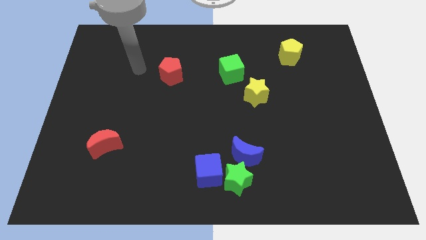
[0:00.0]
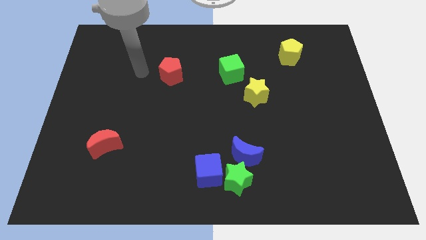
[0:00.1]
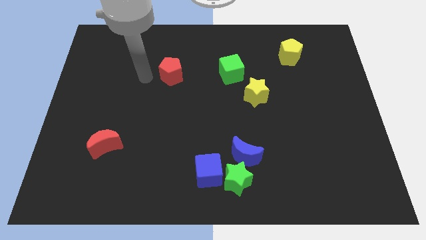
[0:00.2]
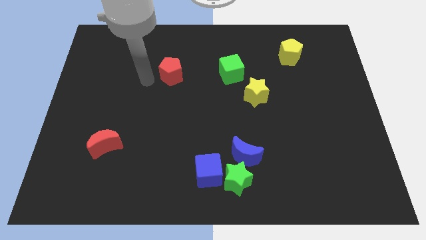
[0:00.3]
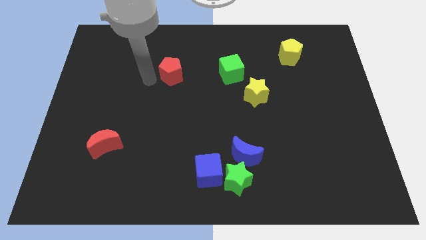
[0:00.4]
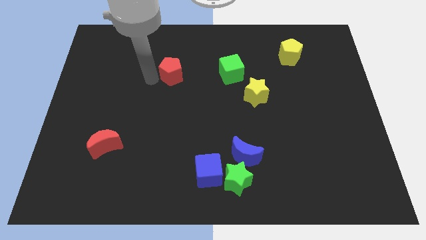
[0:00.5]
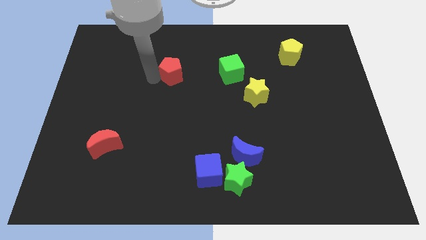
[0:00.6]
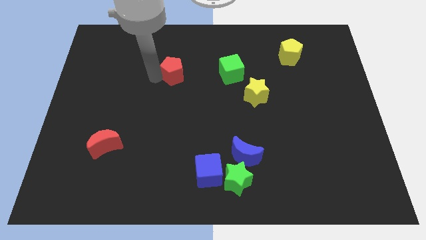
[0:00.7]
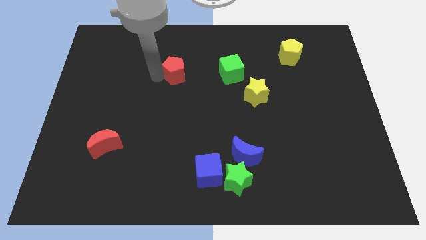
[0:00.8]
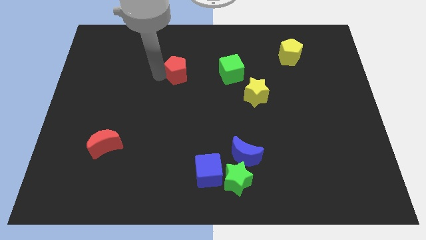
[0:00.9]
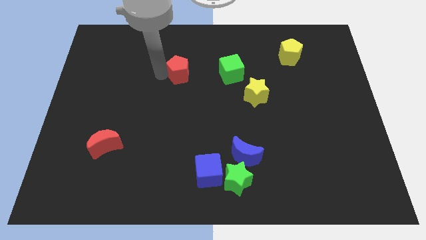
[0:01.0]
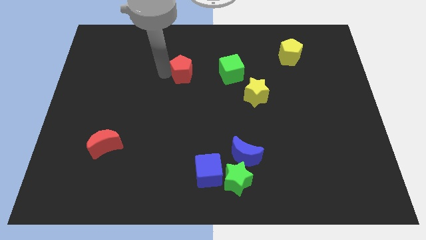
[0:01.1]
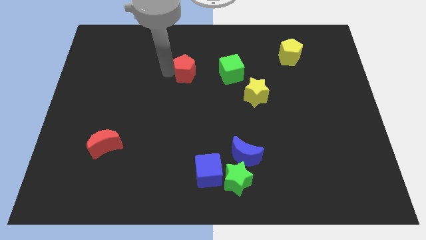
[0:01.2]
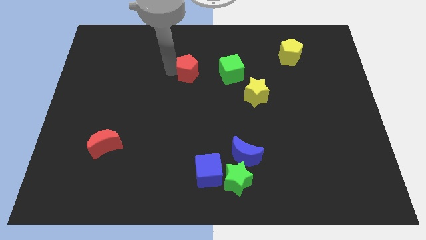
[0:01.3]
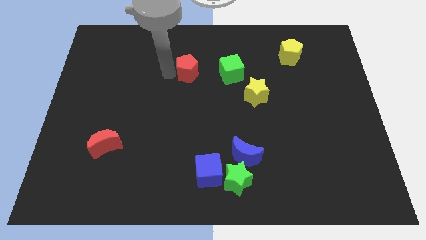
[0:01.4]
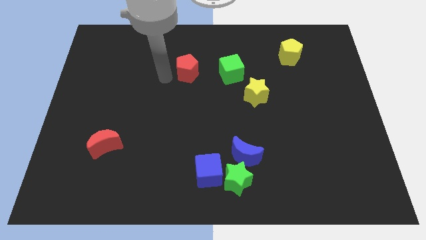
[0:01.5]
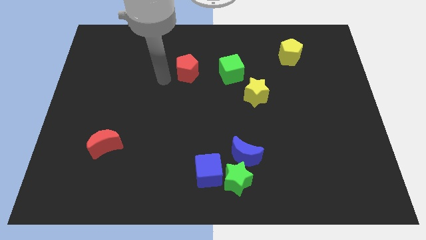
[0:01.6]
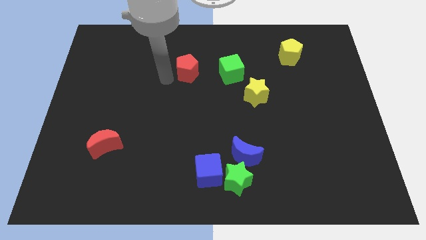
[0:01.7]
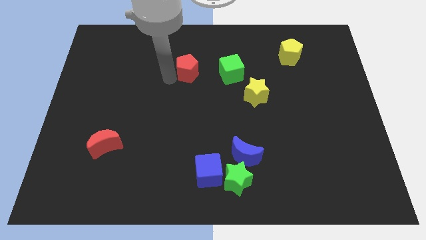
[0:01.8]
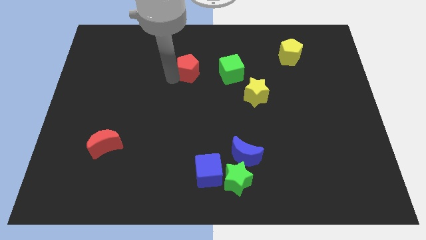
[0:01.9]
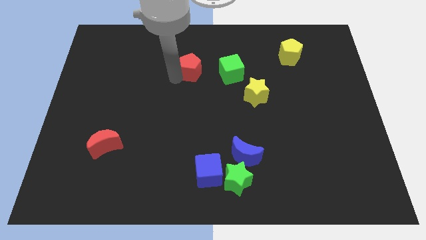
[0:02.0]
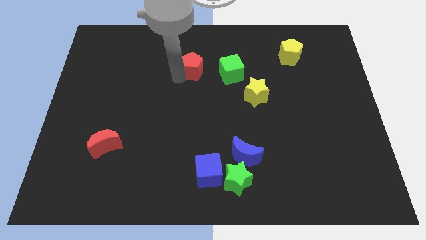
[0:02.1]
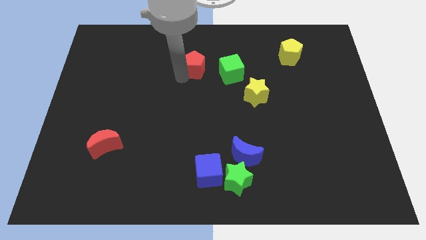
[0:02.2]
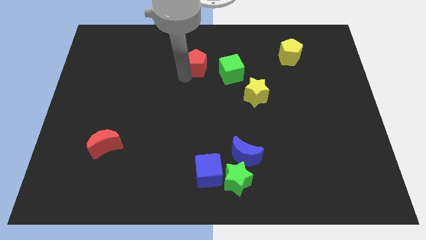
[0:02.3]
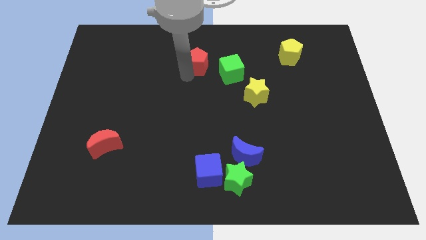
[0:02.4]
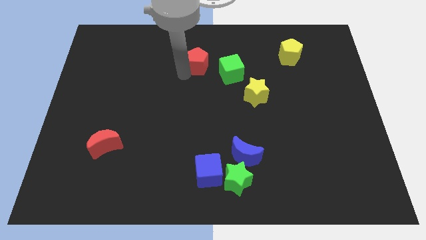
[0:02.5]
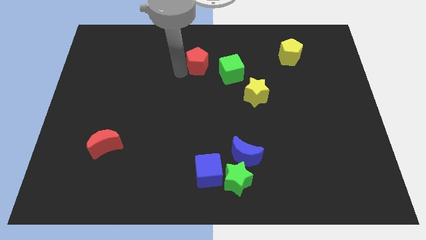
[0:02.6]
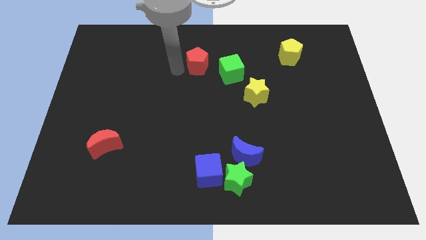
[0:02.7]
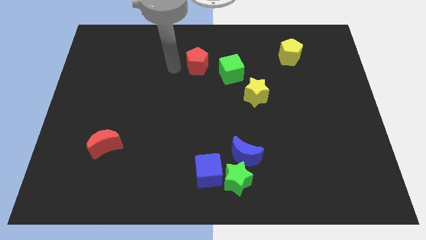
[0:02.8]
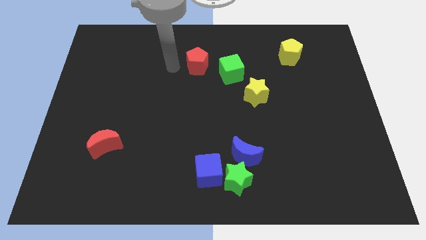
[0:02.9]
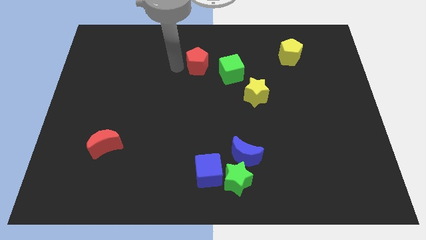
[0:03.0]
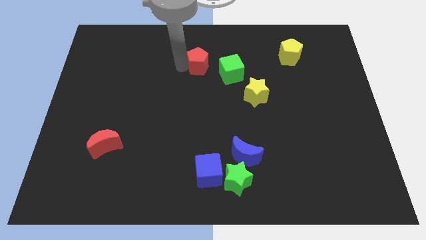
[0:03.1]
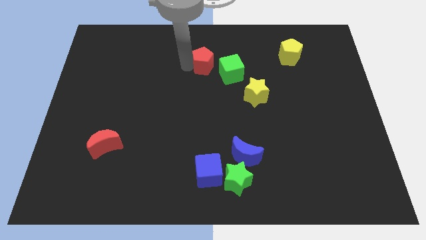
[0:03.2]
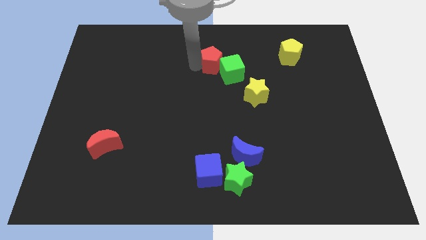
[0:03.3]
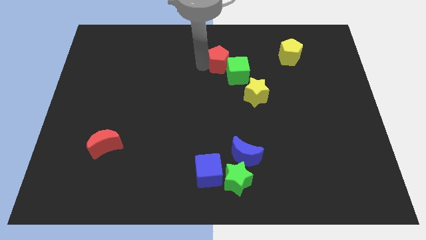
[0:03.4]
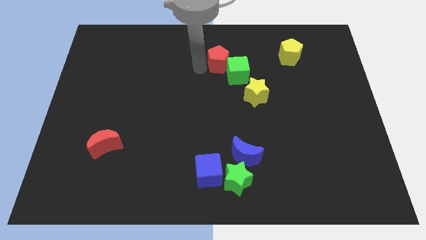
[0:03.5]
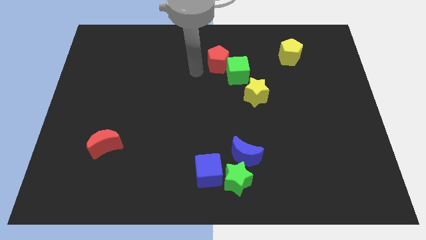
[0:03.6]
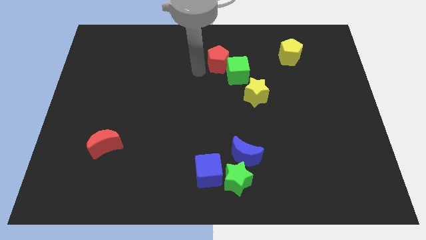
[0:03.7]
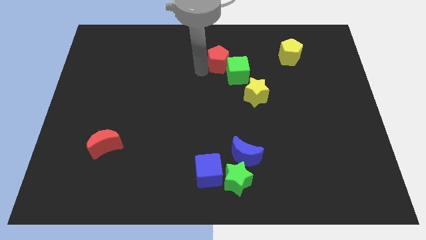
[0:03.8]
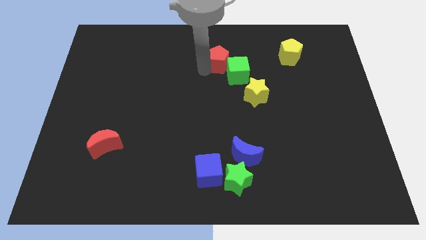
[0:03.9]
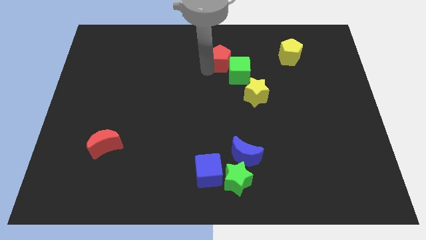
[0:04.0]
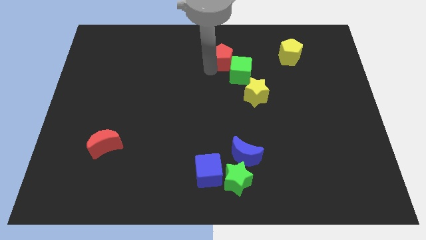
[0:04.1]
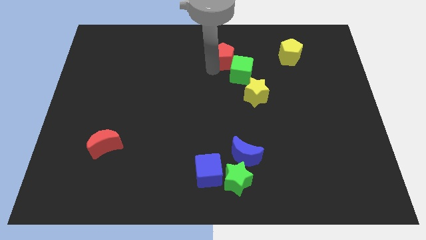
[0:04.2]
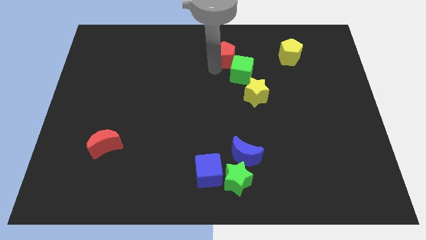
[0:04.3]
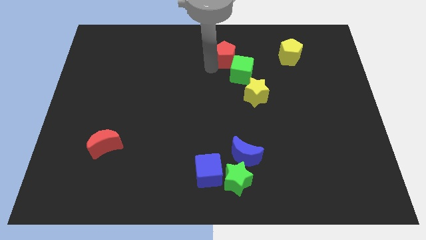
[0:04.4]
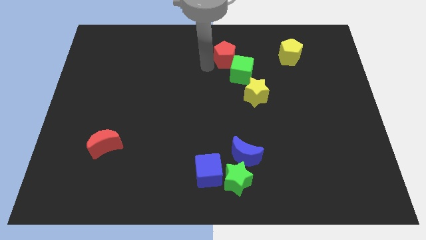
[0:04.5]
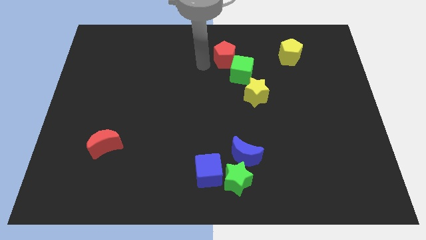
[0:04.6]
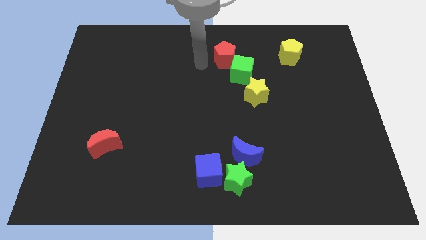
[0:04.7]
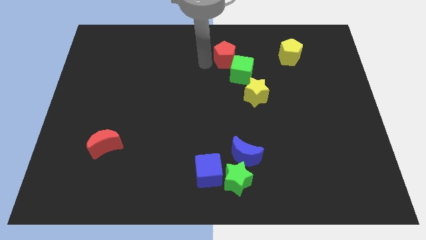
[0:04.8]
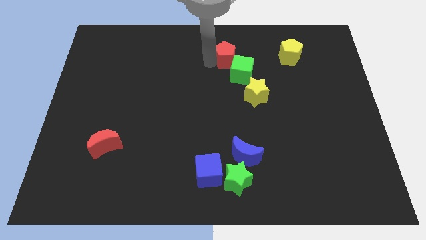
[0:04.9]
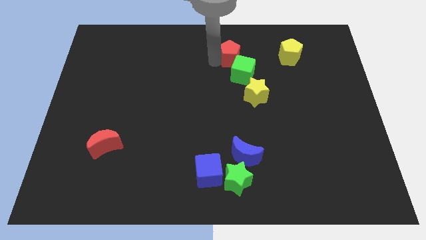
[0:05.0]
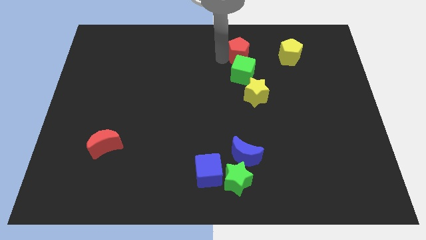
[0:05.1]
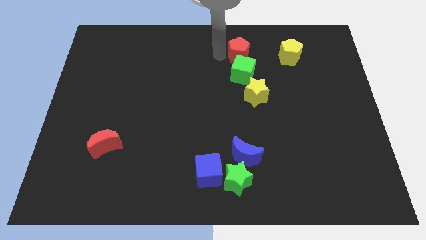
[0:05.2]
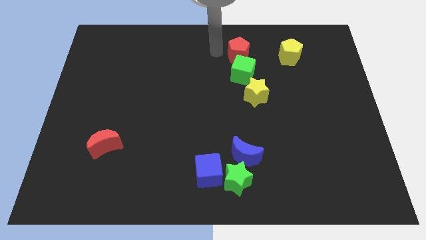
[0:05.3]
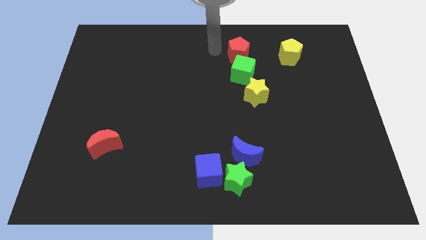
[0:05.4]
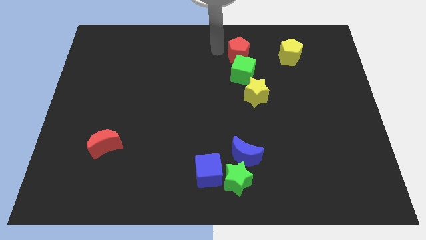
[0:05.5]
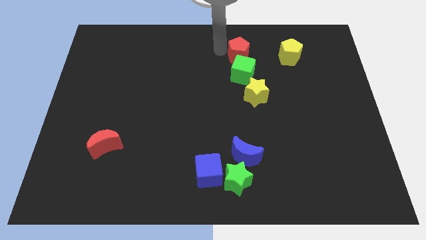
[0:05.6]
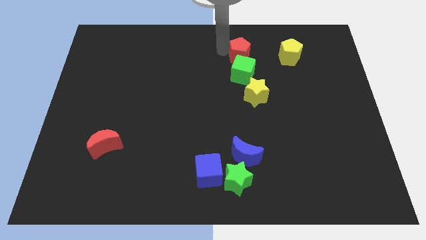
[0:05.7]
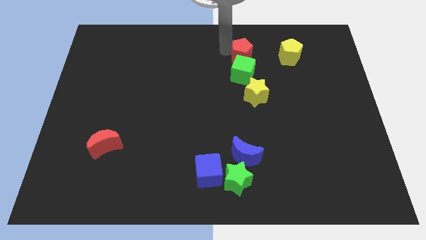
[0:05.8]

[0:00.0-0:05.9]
move the red pentagon diagonally up and to the right of the green cube

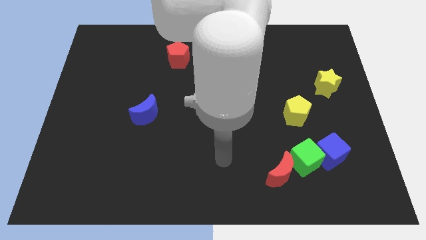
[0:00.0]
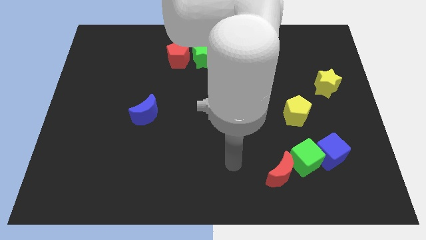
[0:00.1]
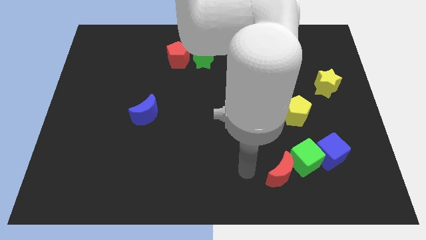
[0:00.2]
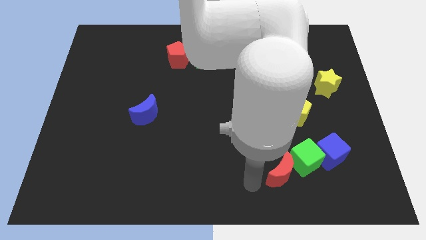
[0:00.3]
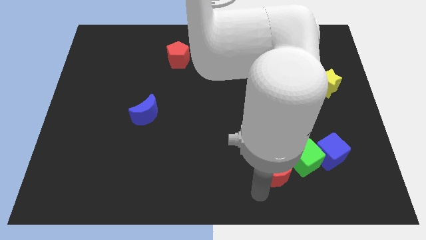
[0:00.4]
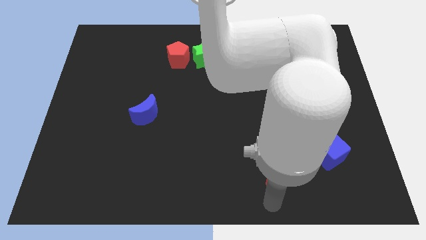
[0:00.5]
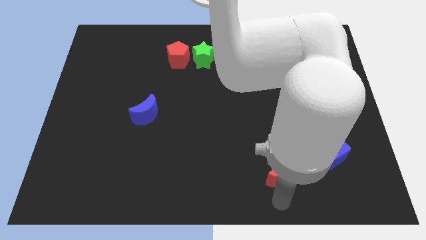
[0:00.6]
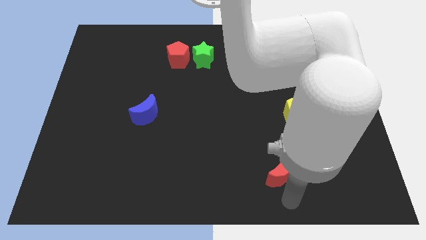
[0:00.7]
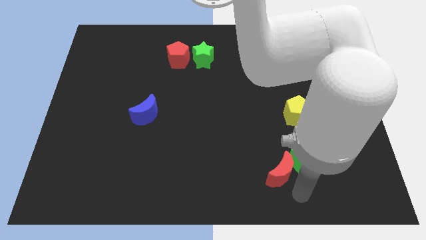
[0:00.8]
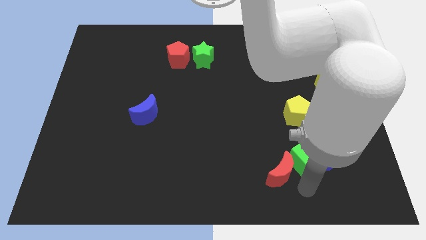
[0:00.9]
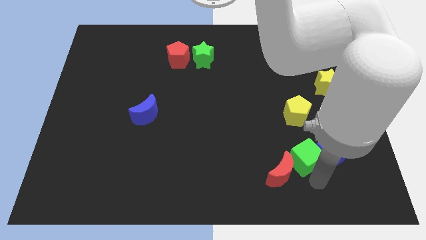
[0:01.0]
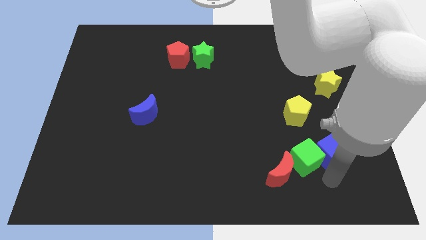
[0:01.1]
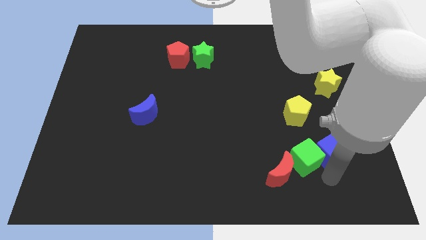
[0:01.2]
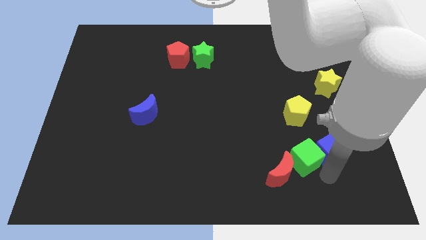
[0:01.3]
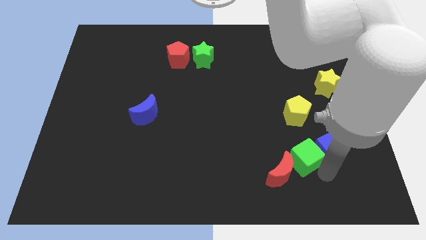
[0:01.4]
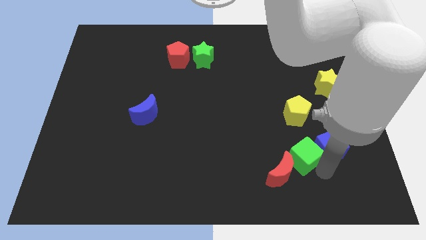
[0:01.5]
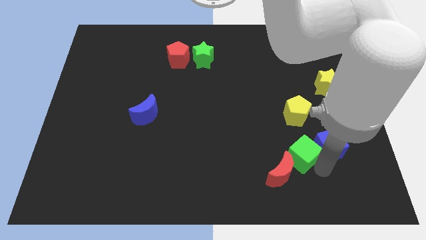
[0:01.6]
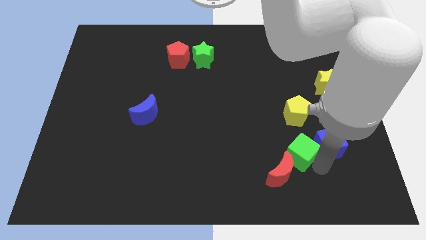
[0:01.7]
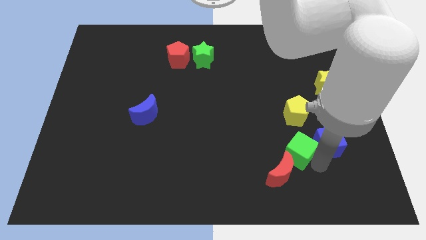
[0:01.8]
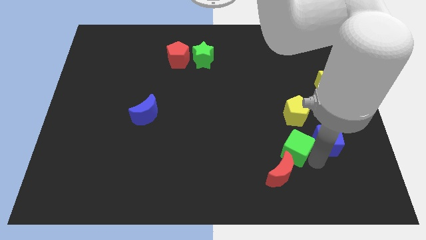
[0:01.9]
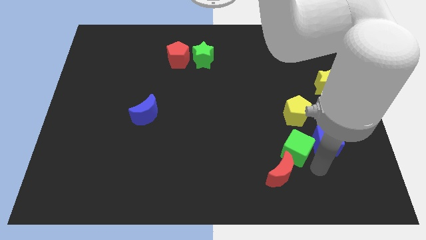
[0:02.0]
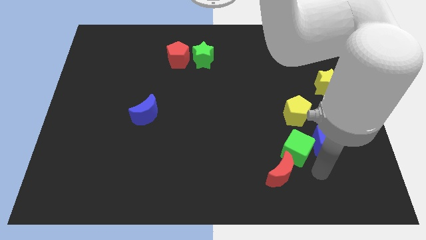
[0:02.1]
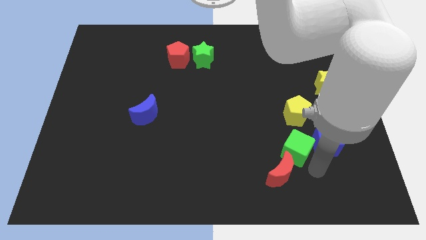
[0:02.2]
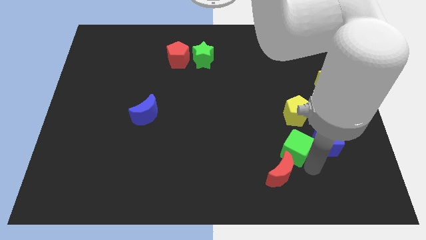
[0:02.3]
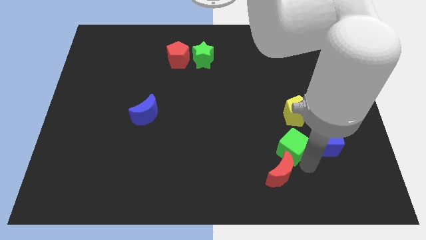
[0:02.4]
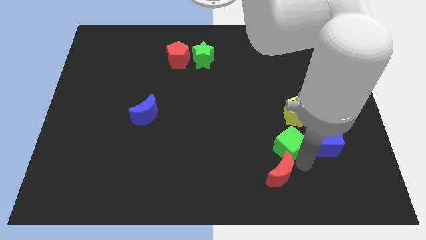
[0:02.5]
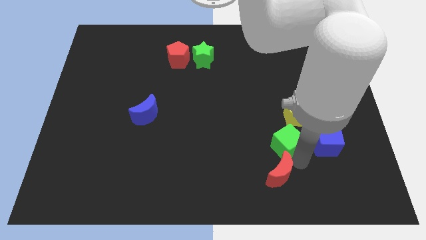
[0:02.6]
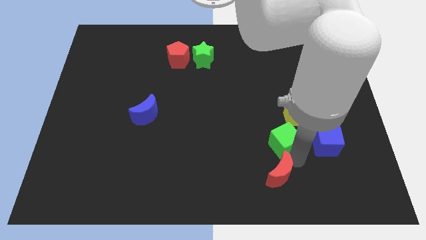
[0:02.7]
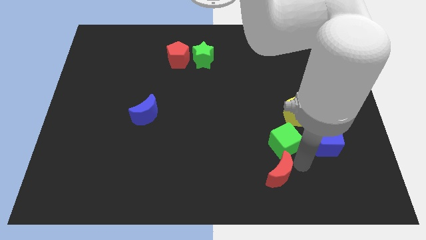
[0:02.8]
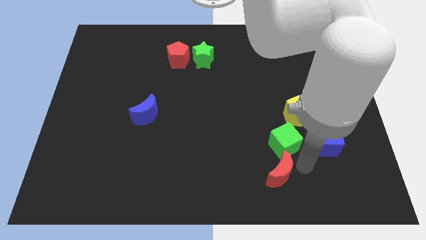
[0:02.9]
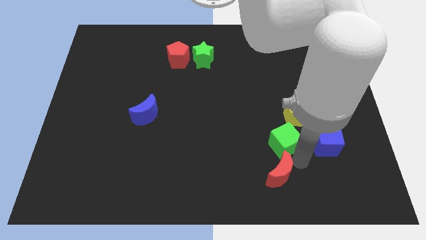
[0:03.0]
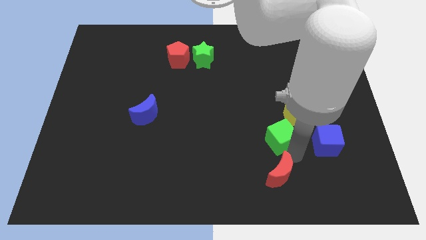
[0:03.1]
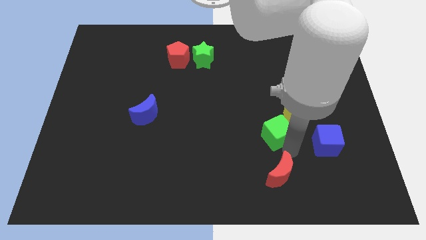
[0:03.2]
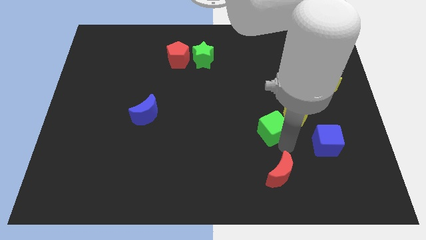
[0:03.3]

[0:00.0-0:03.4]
move the green cube to the left of the yellow pentagon
